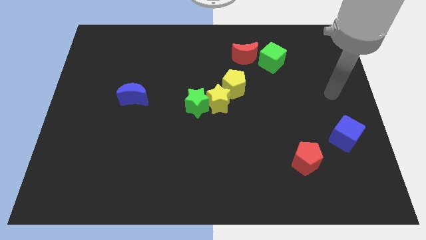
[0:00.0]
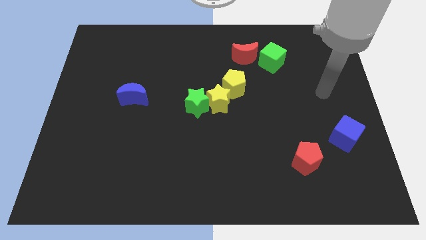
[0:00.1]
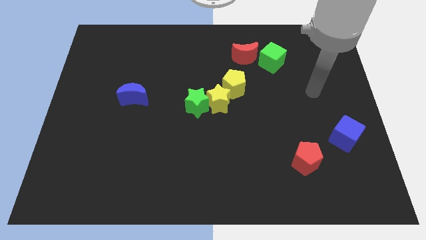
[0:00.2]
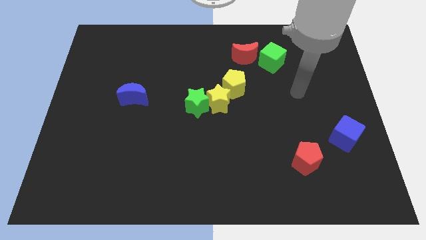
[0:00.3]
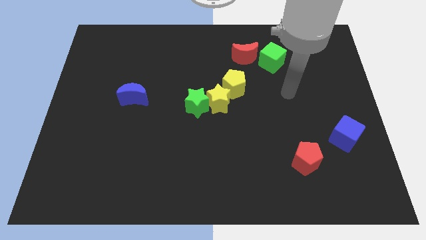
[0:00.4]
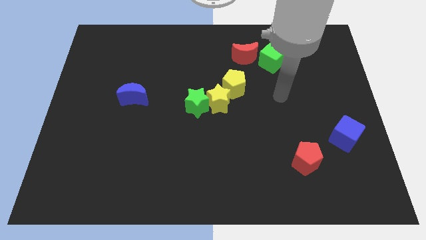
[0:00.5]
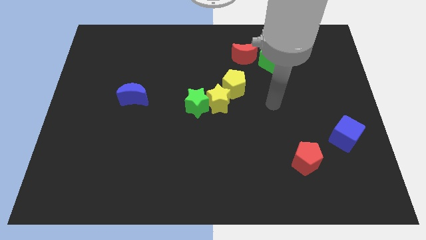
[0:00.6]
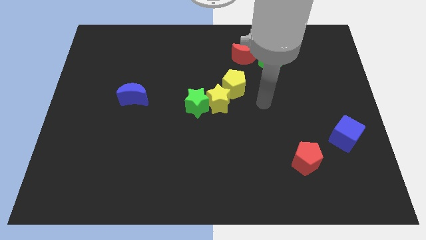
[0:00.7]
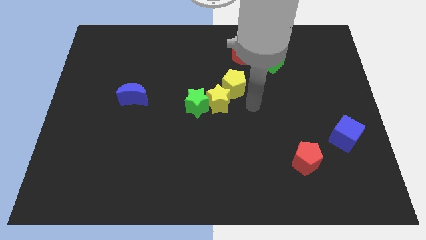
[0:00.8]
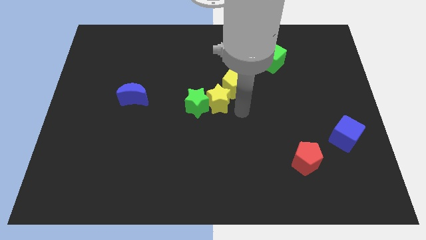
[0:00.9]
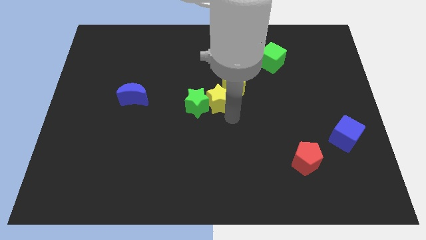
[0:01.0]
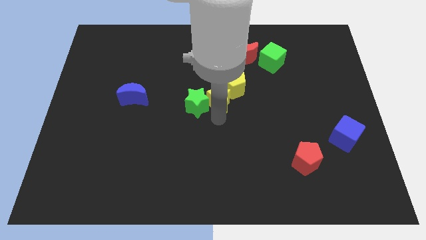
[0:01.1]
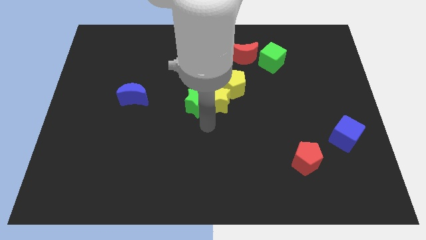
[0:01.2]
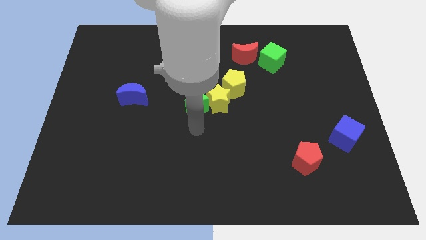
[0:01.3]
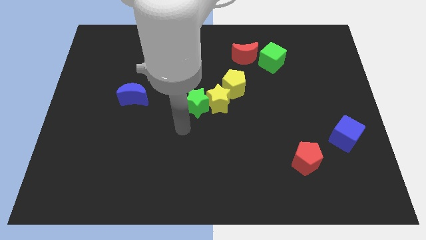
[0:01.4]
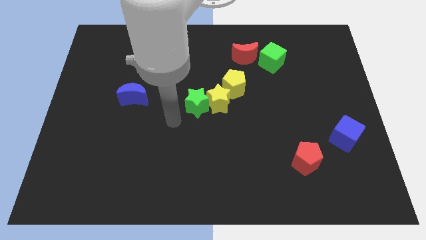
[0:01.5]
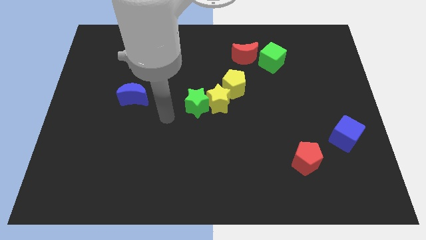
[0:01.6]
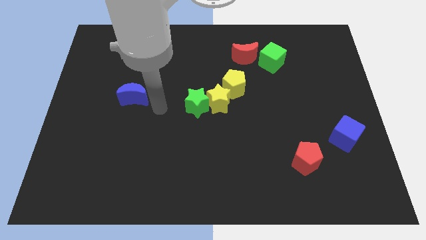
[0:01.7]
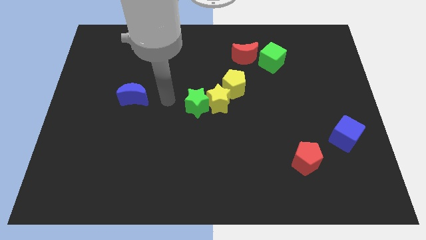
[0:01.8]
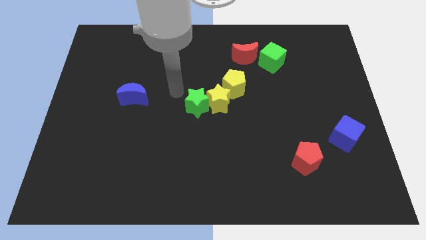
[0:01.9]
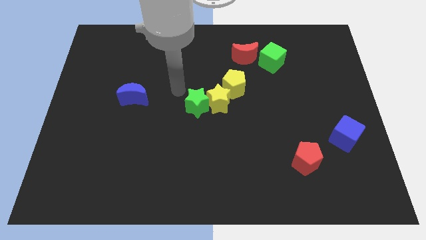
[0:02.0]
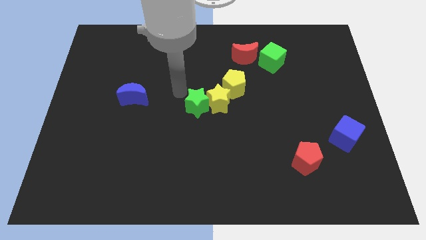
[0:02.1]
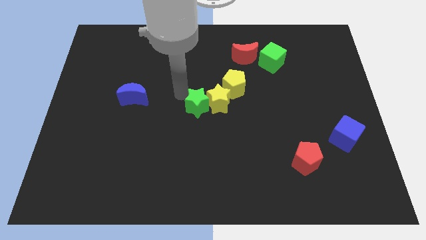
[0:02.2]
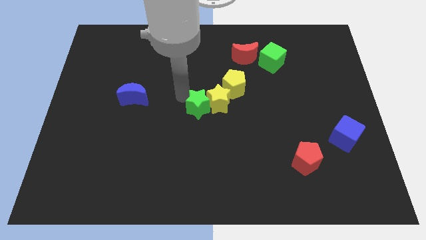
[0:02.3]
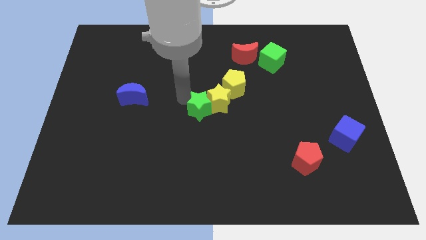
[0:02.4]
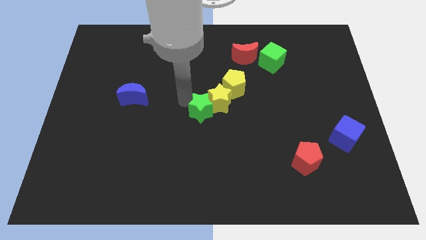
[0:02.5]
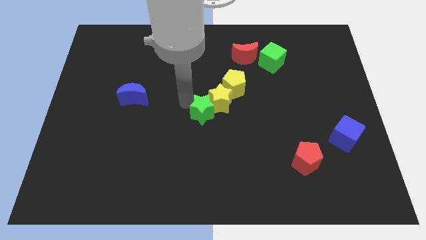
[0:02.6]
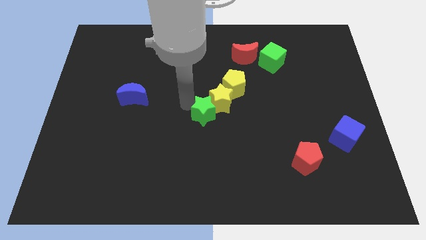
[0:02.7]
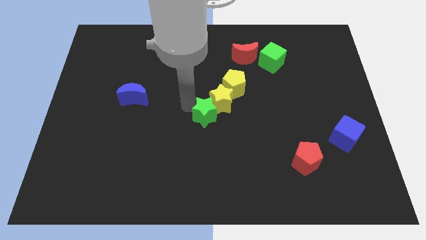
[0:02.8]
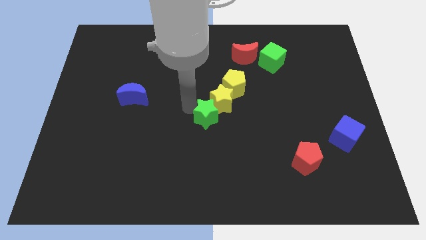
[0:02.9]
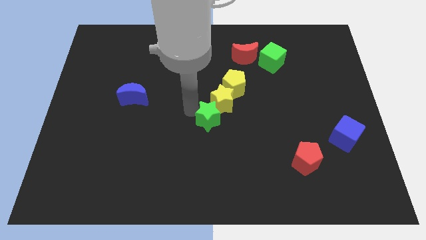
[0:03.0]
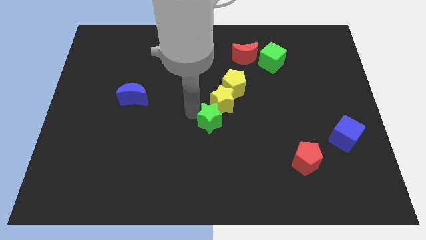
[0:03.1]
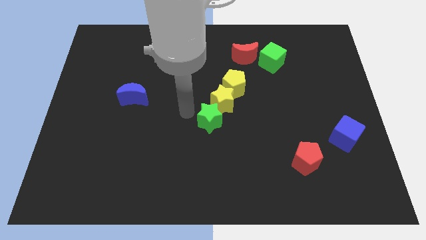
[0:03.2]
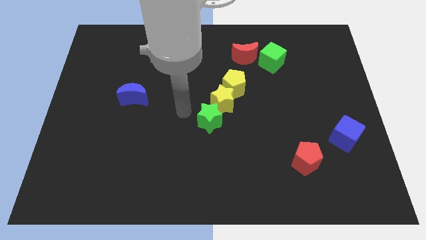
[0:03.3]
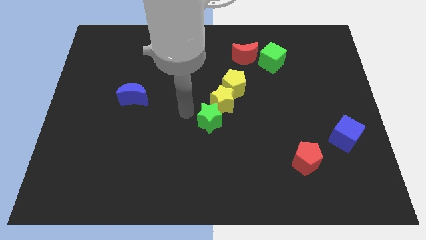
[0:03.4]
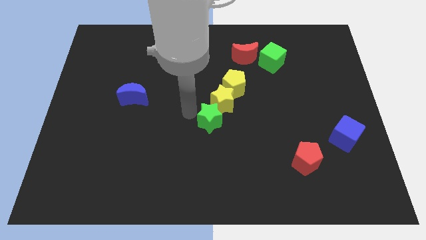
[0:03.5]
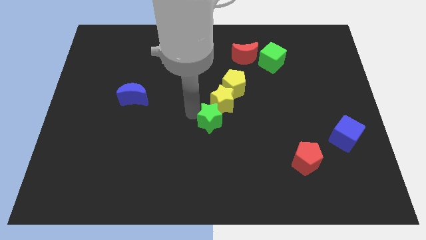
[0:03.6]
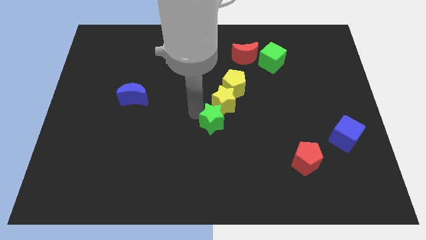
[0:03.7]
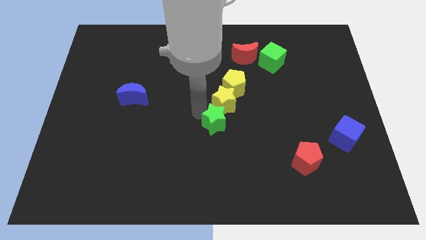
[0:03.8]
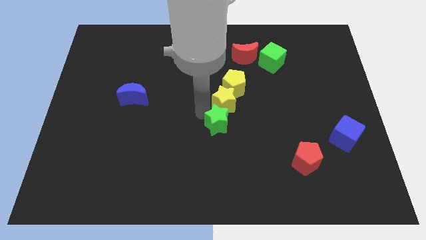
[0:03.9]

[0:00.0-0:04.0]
push the green star down and right diagonally slightly

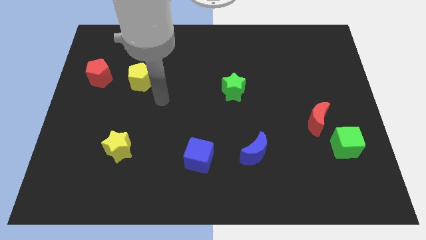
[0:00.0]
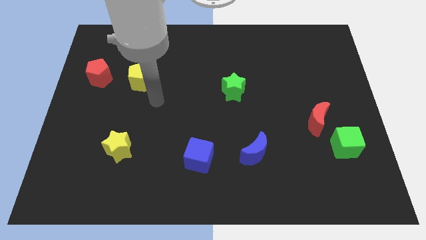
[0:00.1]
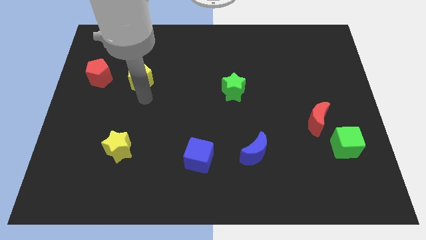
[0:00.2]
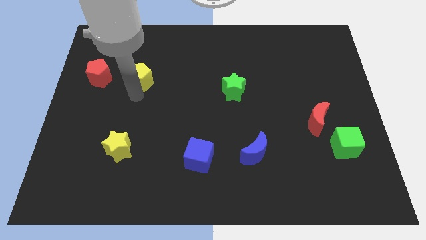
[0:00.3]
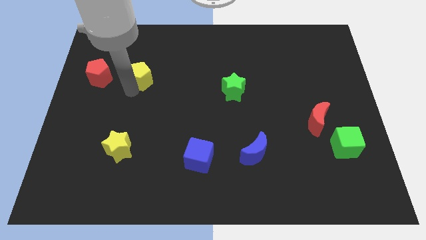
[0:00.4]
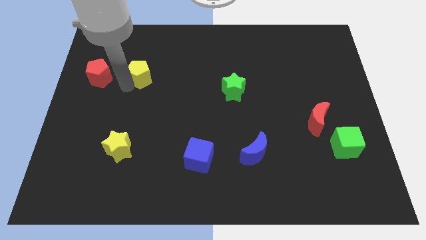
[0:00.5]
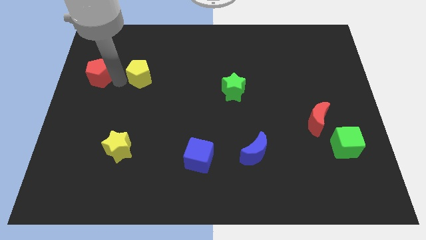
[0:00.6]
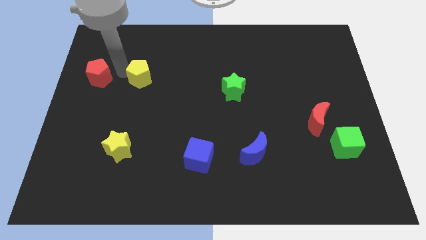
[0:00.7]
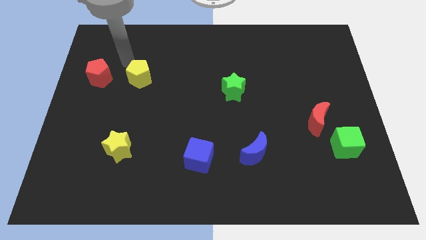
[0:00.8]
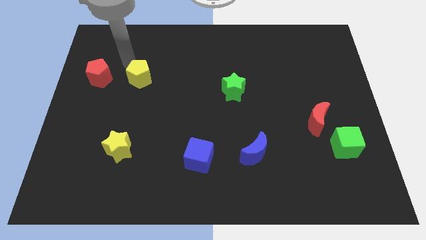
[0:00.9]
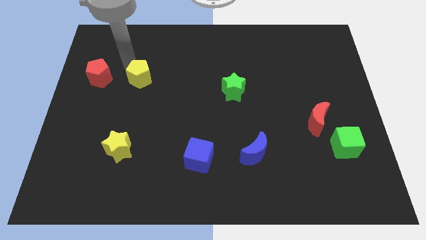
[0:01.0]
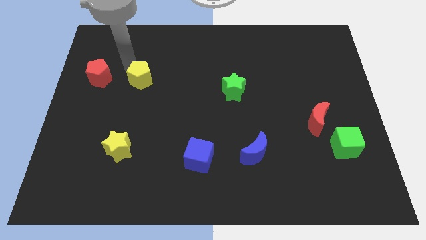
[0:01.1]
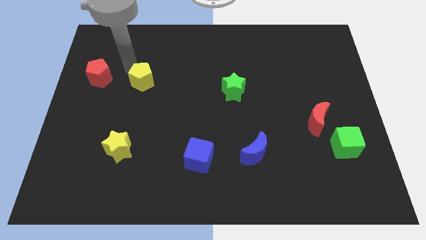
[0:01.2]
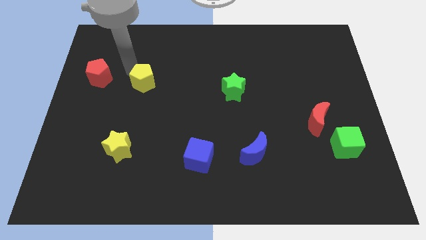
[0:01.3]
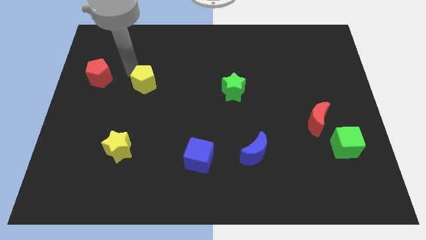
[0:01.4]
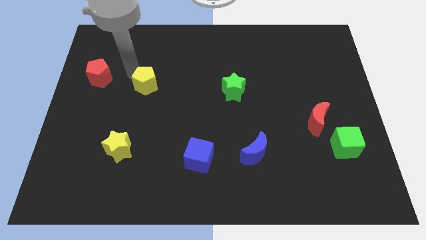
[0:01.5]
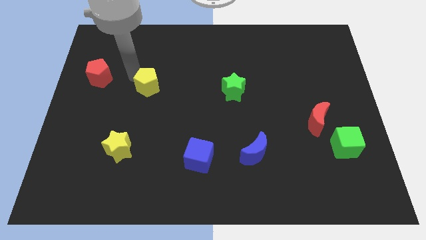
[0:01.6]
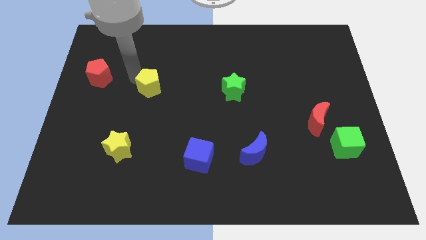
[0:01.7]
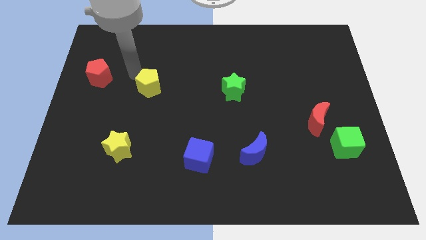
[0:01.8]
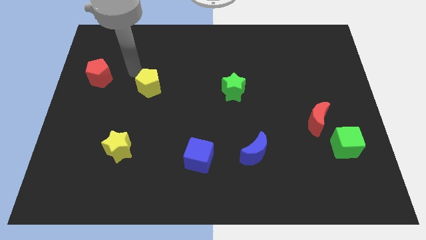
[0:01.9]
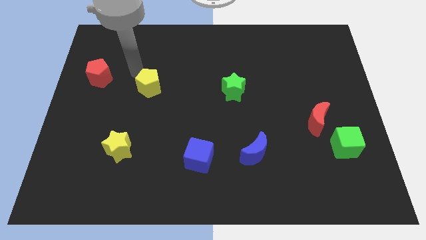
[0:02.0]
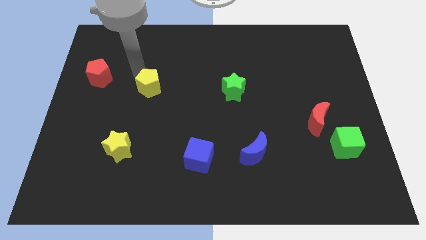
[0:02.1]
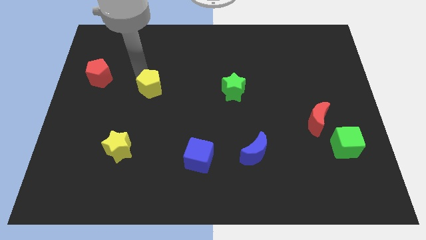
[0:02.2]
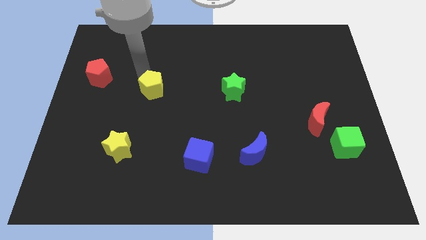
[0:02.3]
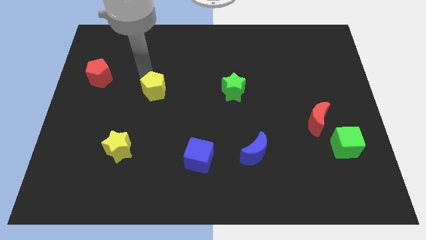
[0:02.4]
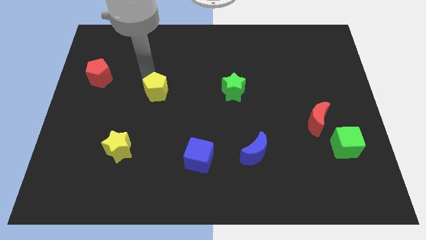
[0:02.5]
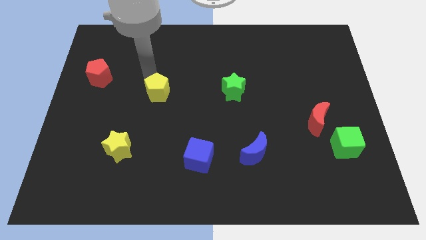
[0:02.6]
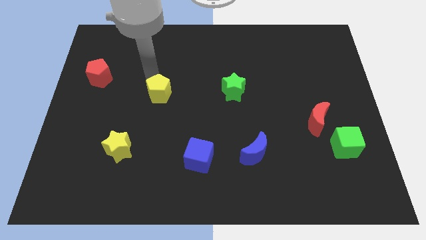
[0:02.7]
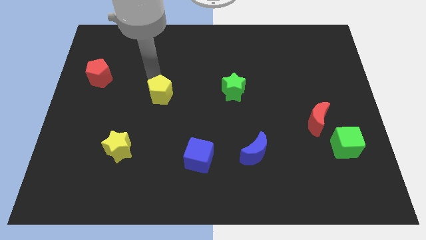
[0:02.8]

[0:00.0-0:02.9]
move the yellow pentagon down and right slightly

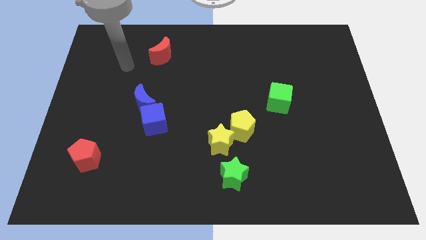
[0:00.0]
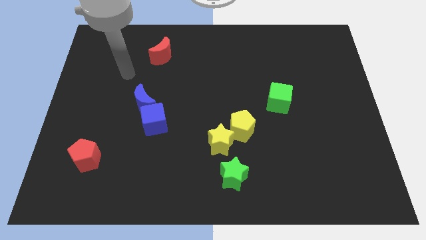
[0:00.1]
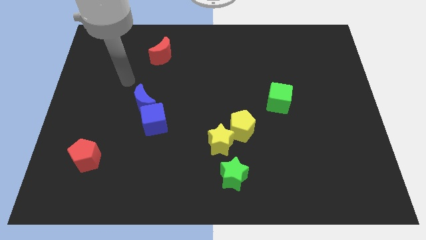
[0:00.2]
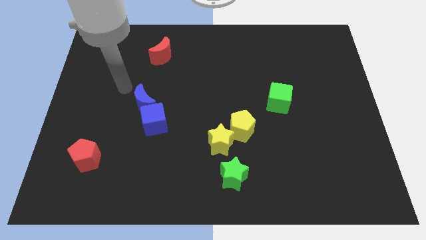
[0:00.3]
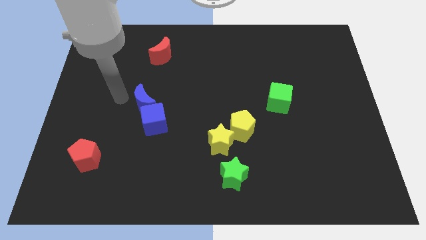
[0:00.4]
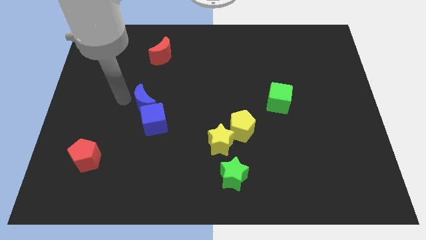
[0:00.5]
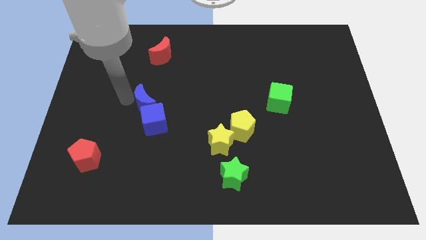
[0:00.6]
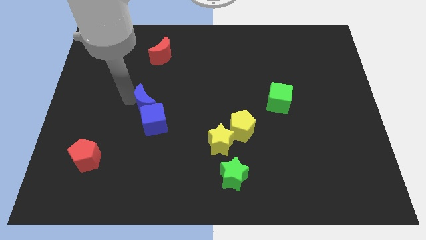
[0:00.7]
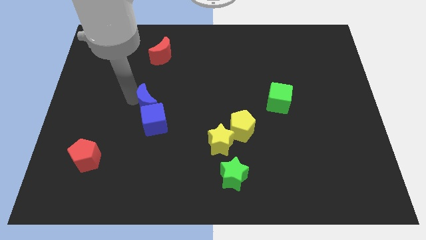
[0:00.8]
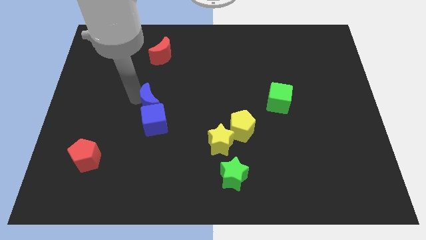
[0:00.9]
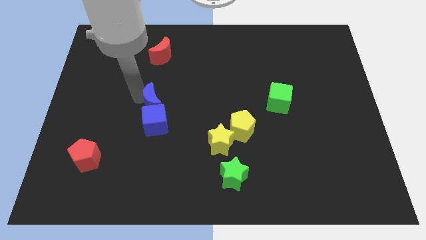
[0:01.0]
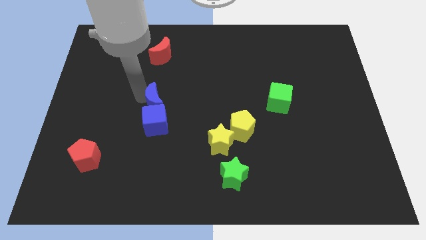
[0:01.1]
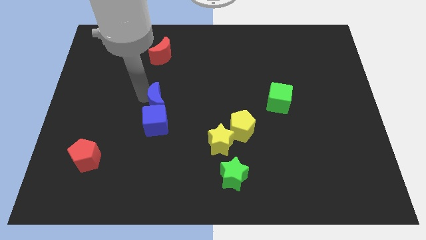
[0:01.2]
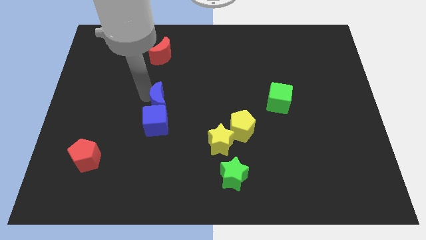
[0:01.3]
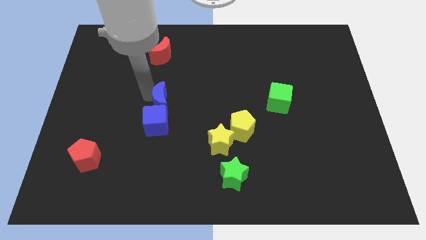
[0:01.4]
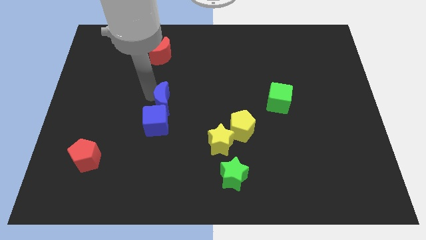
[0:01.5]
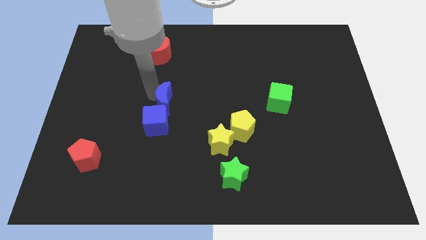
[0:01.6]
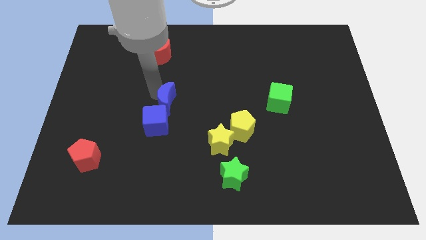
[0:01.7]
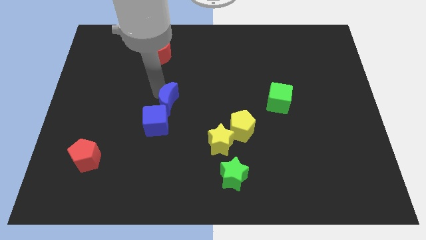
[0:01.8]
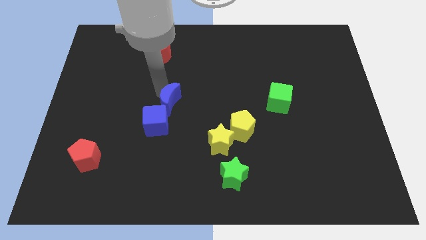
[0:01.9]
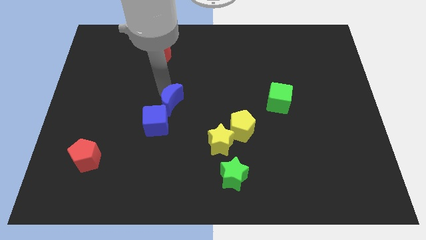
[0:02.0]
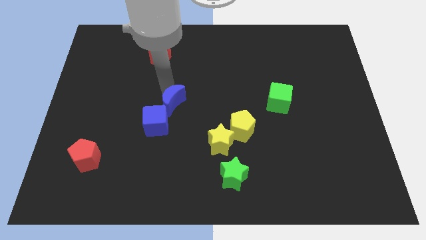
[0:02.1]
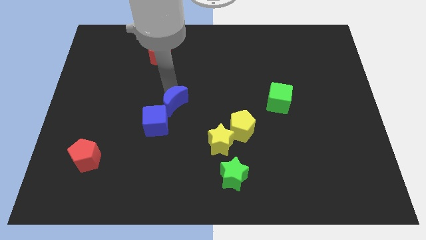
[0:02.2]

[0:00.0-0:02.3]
slide the blue moon right a little bit
